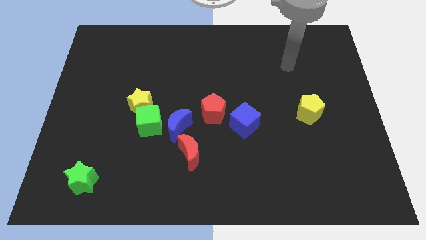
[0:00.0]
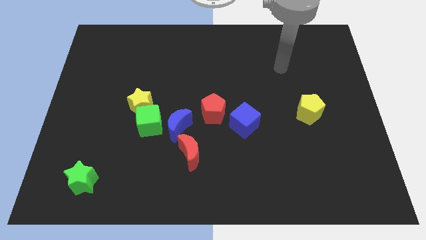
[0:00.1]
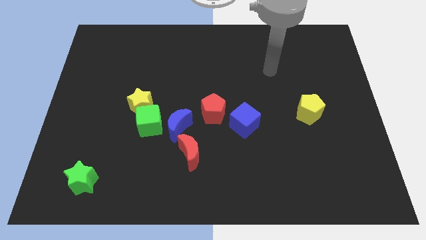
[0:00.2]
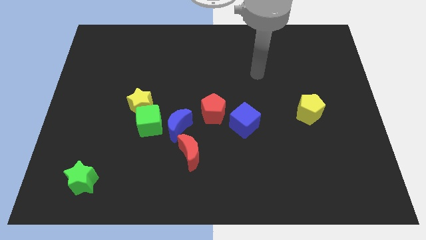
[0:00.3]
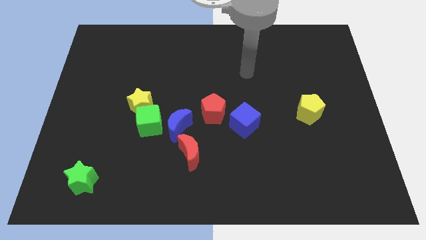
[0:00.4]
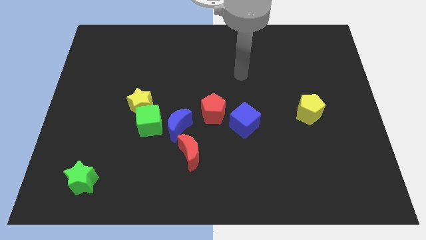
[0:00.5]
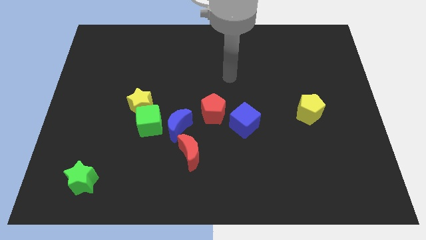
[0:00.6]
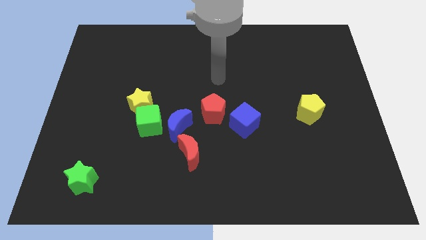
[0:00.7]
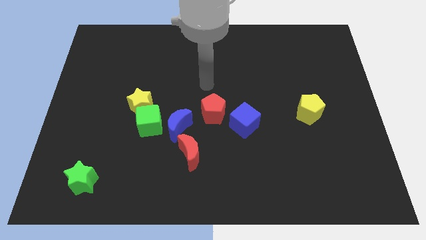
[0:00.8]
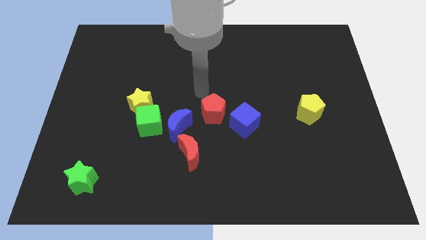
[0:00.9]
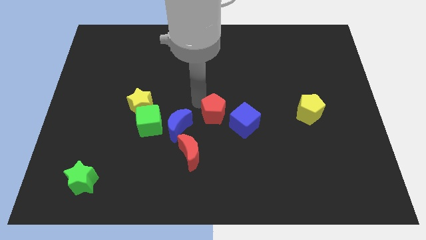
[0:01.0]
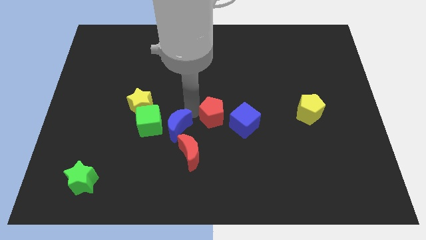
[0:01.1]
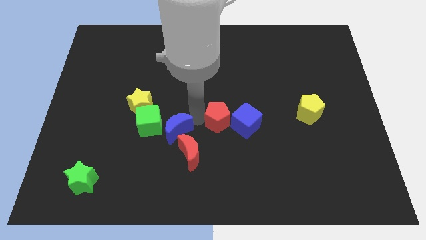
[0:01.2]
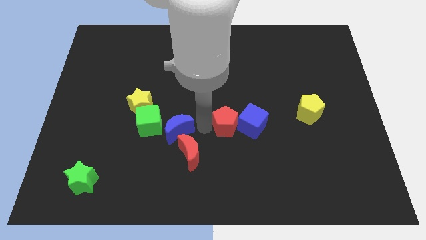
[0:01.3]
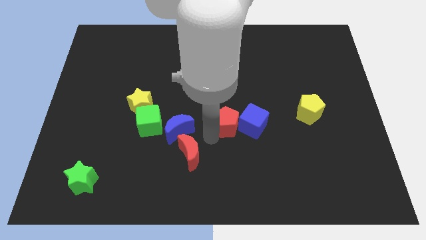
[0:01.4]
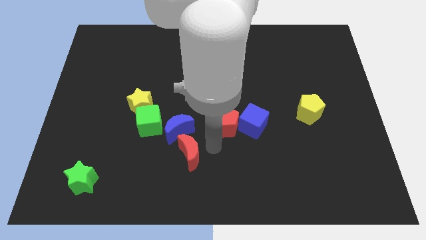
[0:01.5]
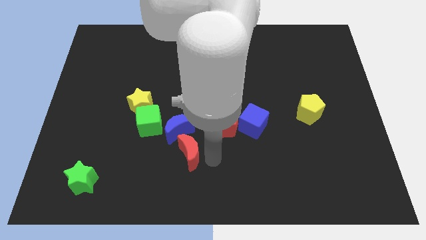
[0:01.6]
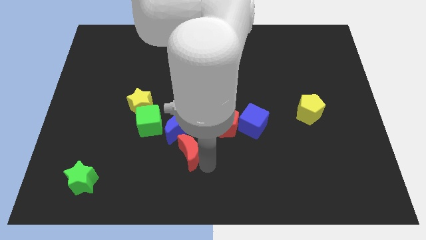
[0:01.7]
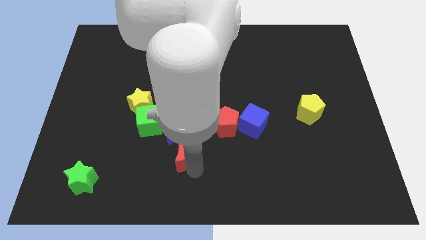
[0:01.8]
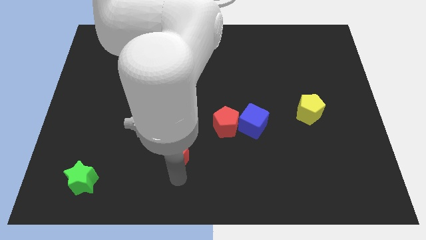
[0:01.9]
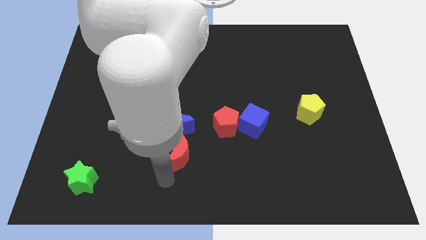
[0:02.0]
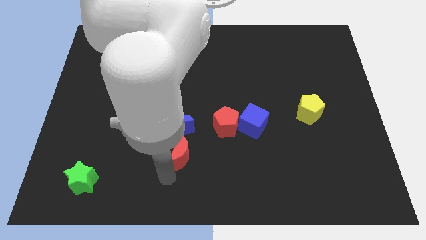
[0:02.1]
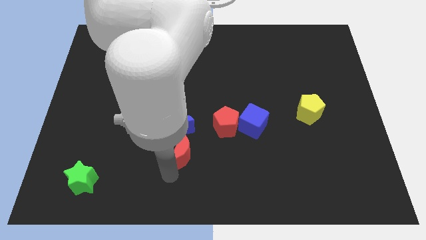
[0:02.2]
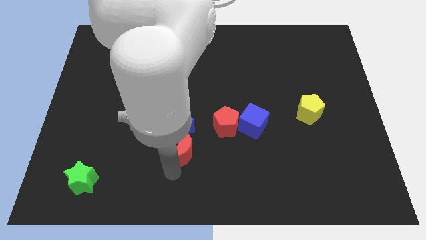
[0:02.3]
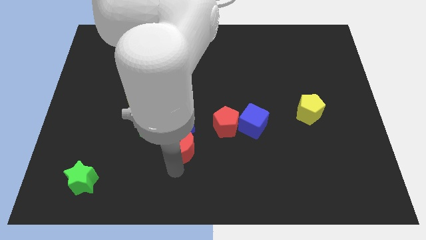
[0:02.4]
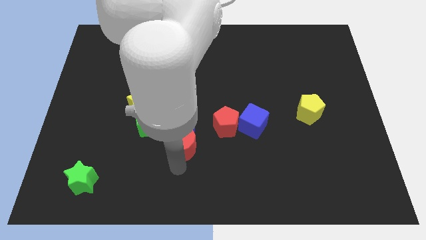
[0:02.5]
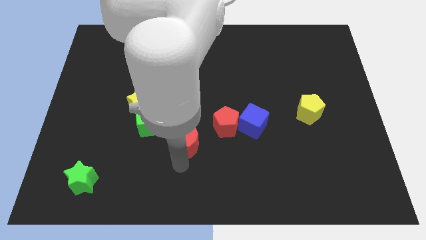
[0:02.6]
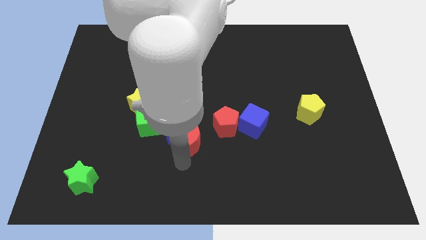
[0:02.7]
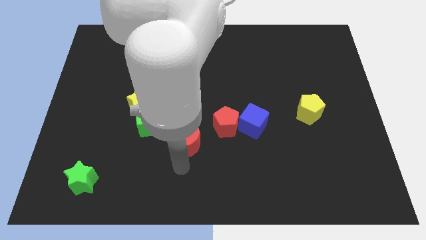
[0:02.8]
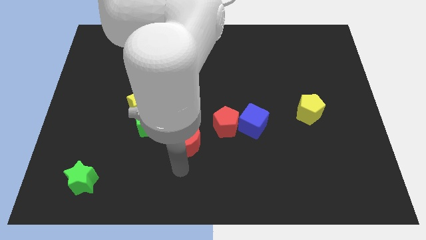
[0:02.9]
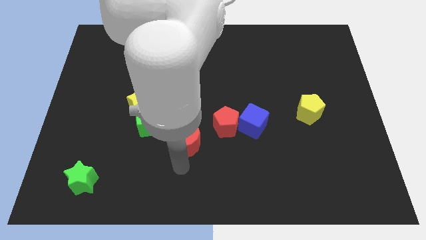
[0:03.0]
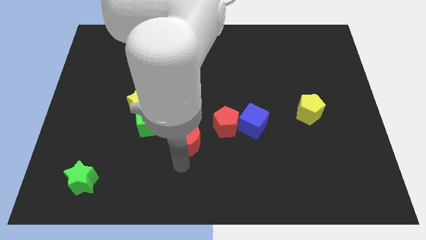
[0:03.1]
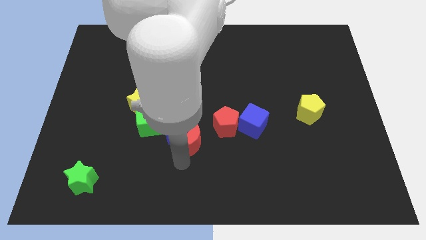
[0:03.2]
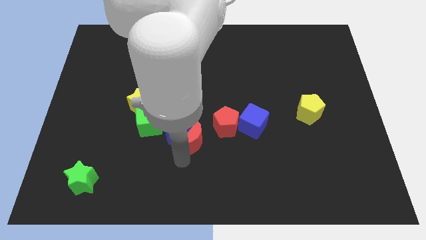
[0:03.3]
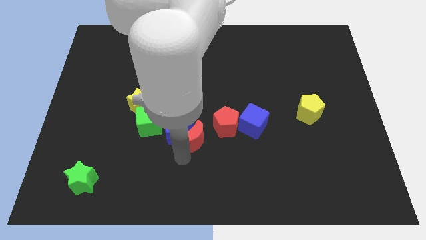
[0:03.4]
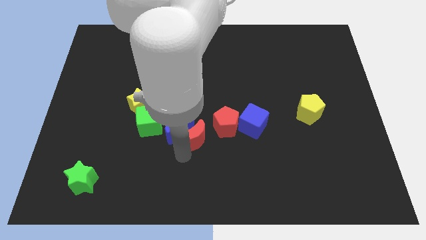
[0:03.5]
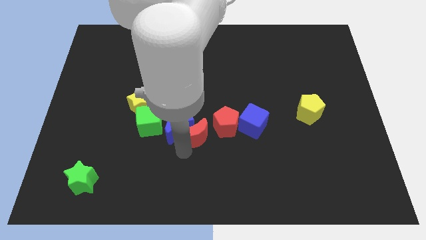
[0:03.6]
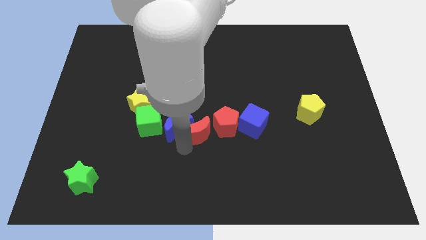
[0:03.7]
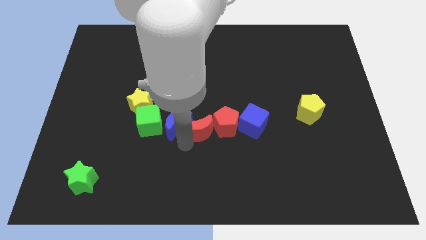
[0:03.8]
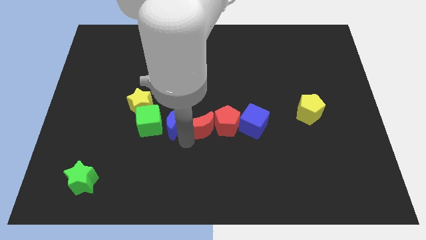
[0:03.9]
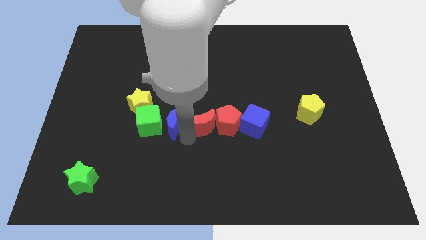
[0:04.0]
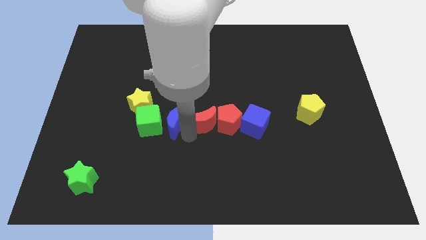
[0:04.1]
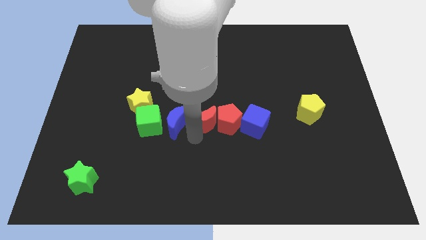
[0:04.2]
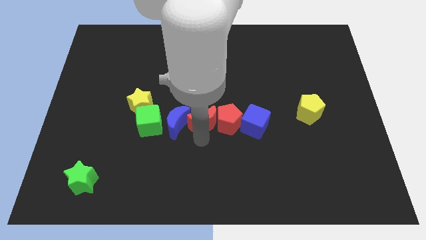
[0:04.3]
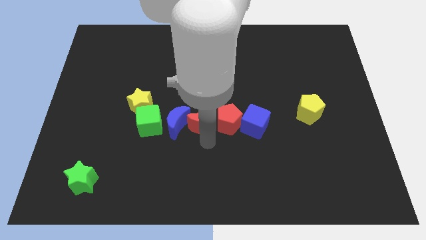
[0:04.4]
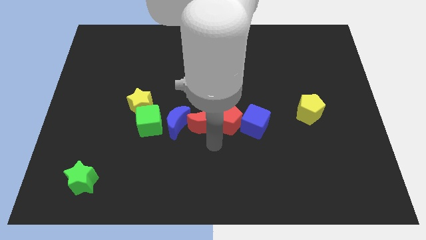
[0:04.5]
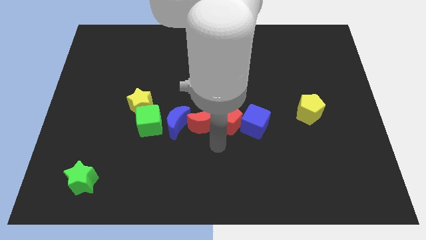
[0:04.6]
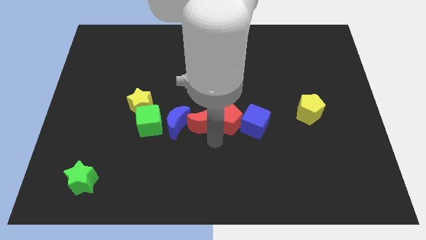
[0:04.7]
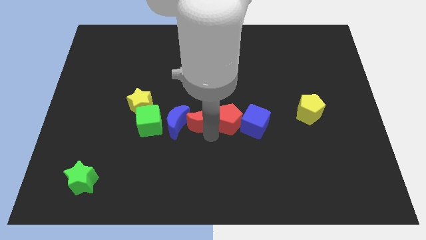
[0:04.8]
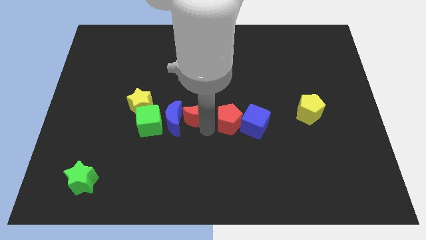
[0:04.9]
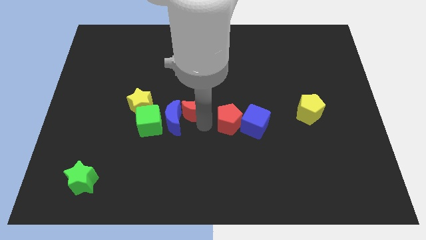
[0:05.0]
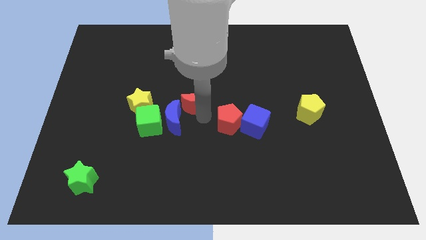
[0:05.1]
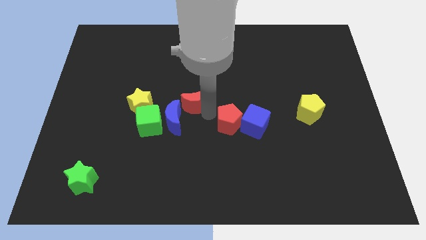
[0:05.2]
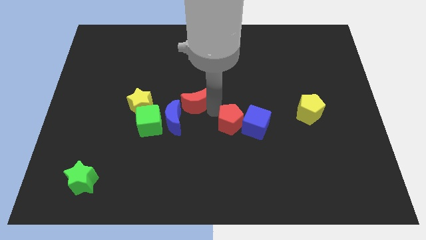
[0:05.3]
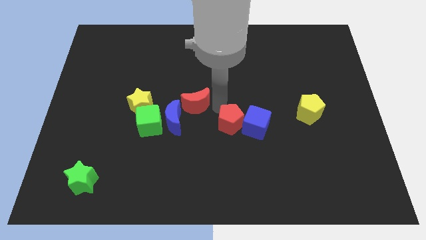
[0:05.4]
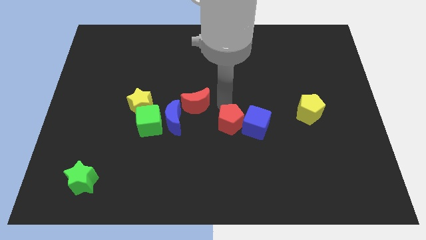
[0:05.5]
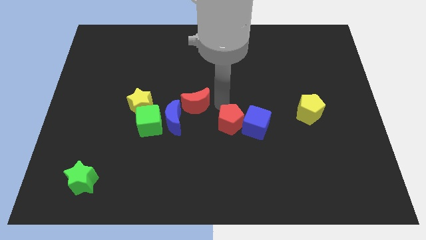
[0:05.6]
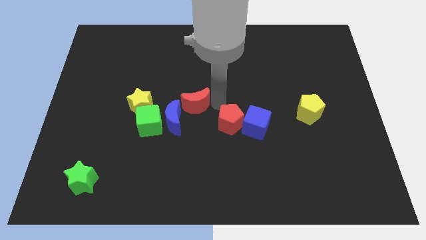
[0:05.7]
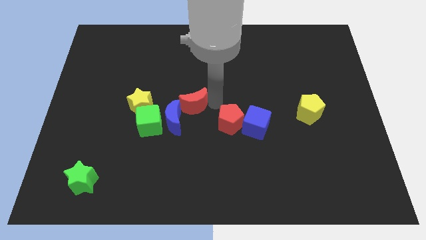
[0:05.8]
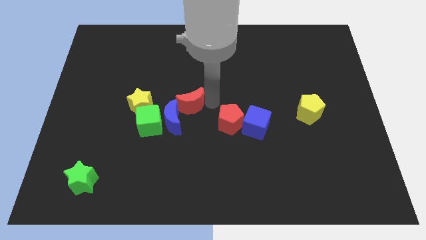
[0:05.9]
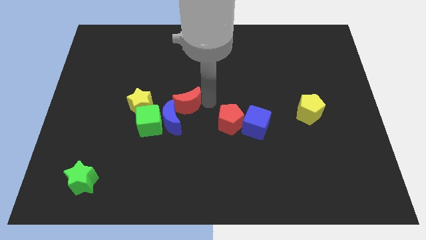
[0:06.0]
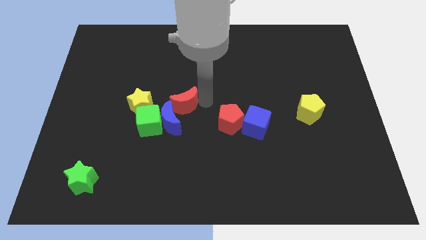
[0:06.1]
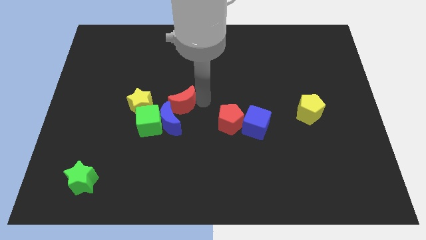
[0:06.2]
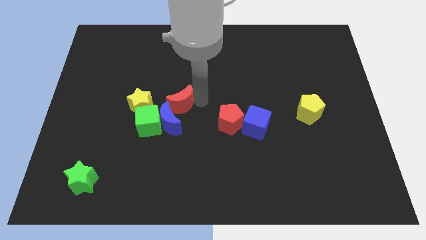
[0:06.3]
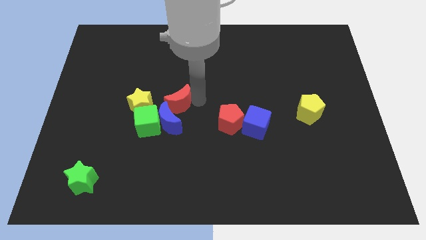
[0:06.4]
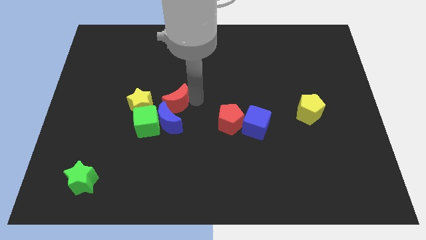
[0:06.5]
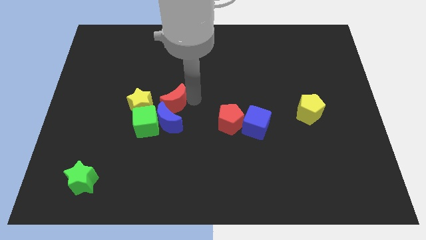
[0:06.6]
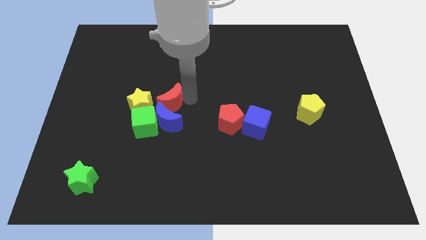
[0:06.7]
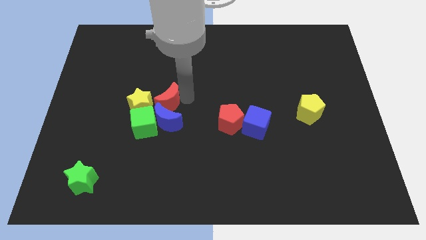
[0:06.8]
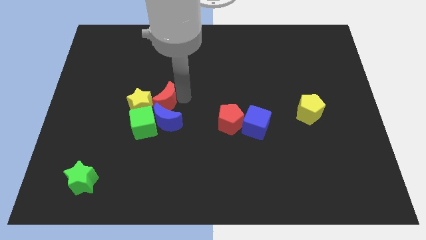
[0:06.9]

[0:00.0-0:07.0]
push the red moon towards the yellow star
